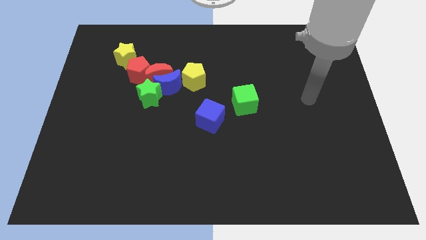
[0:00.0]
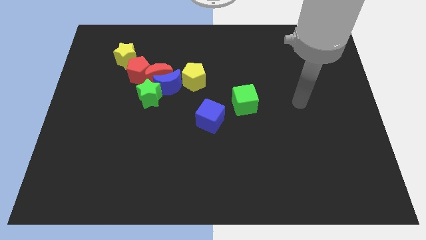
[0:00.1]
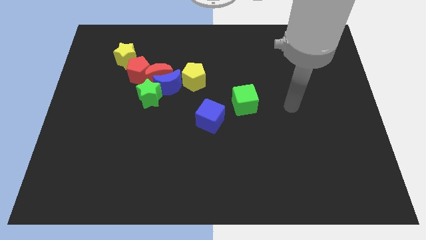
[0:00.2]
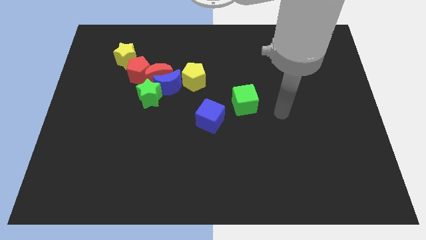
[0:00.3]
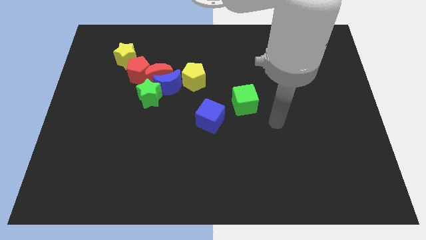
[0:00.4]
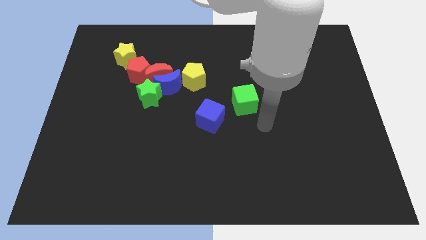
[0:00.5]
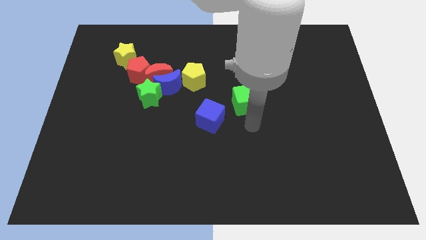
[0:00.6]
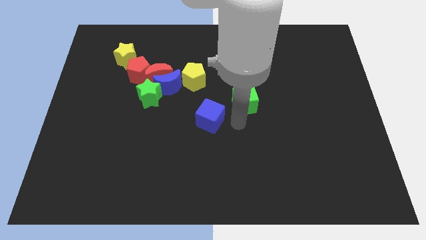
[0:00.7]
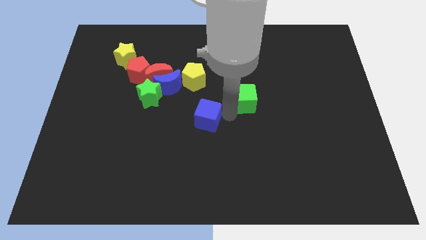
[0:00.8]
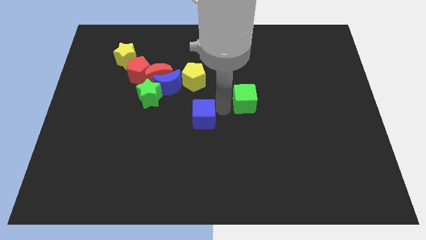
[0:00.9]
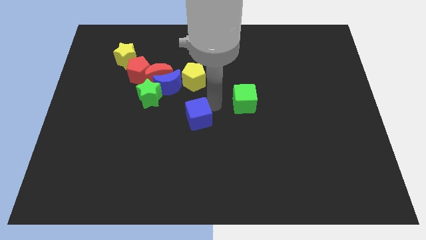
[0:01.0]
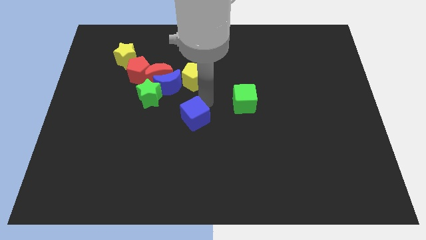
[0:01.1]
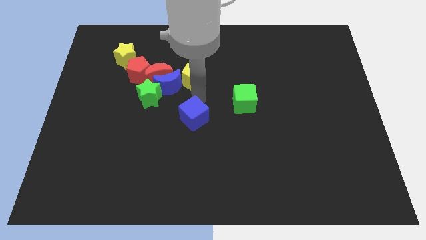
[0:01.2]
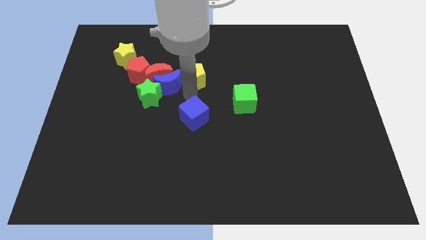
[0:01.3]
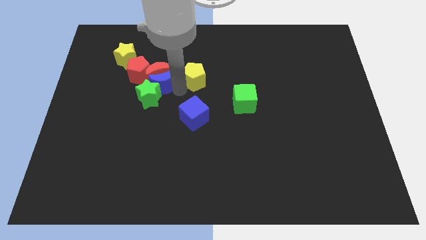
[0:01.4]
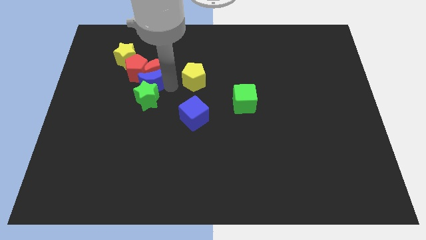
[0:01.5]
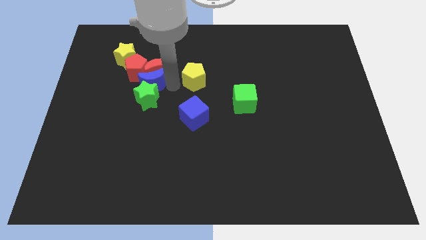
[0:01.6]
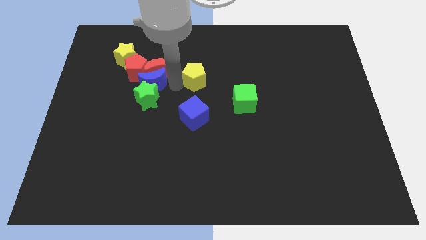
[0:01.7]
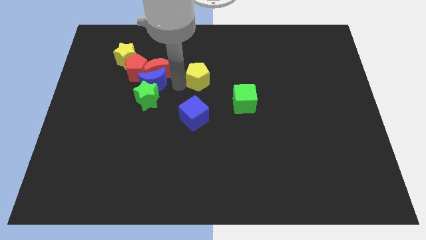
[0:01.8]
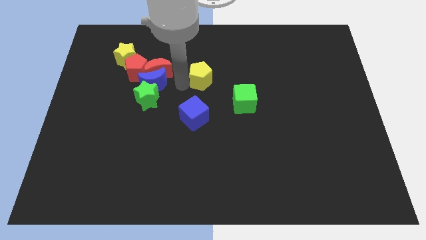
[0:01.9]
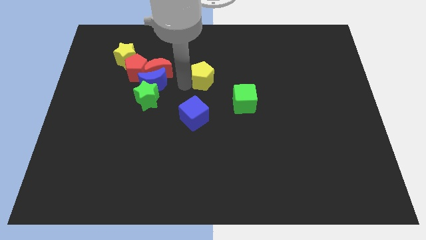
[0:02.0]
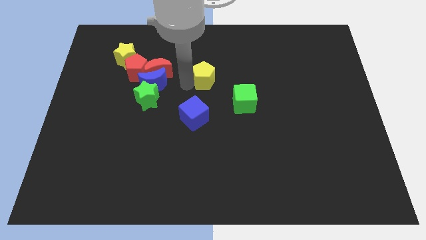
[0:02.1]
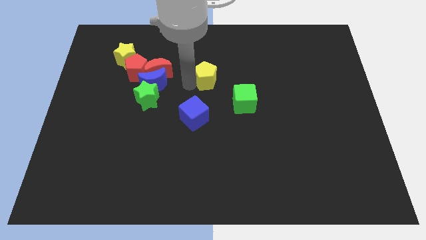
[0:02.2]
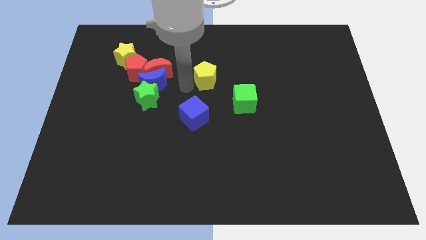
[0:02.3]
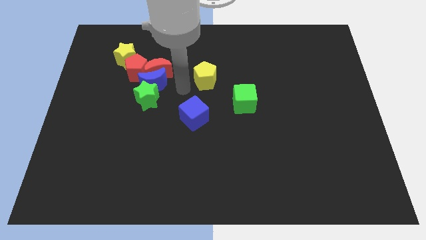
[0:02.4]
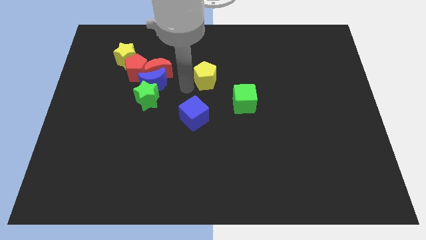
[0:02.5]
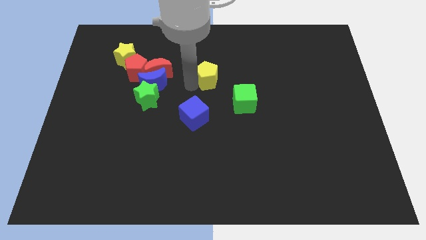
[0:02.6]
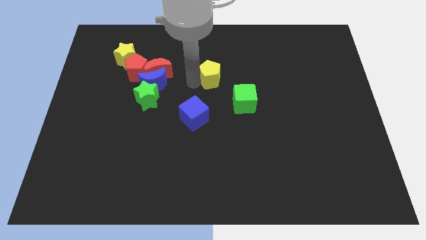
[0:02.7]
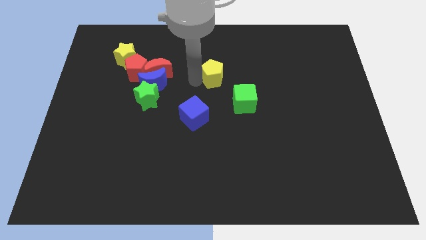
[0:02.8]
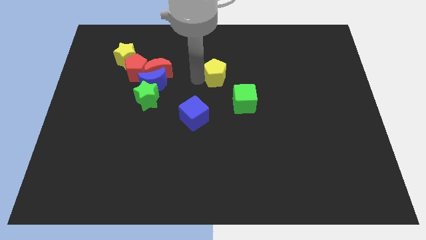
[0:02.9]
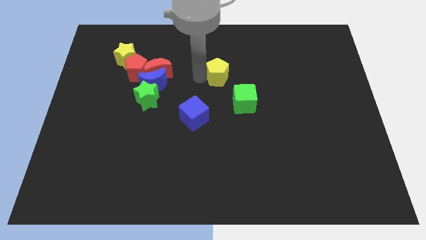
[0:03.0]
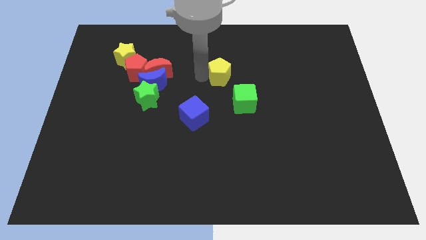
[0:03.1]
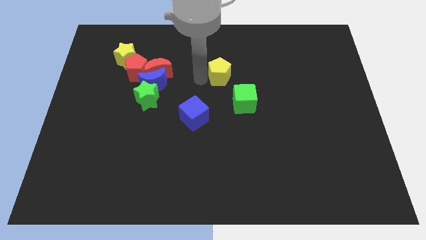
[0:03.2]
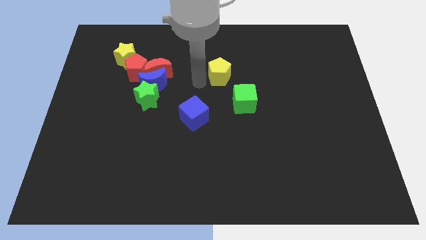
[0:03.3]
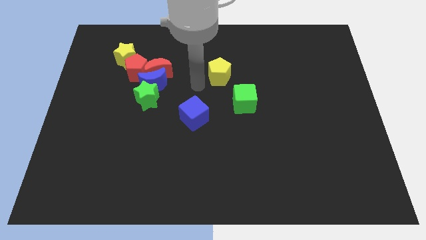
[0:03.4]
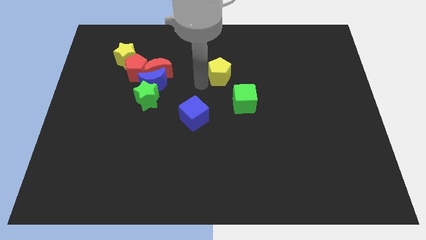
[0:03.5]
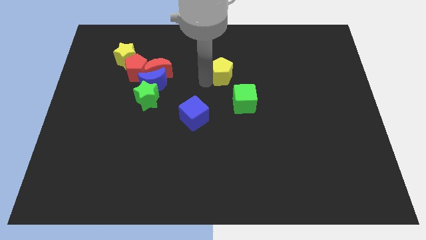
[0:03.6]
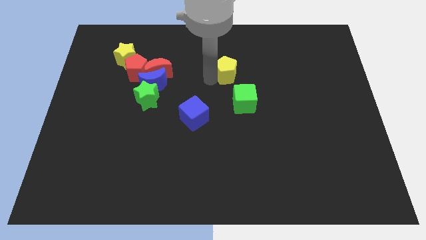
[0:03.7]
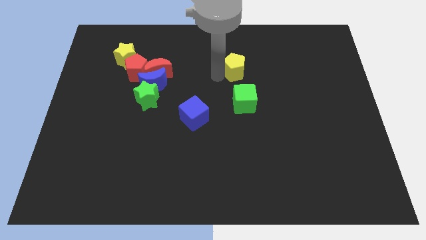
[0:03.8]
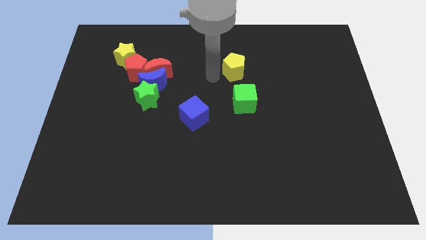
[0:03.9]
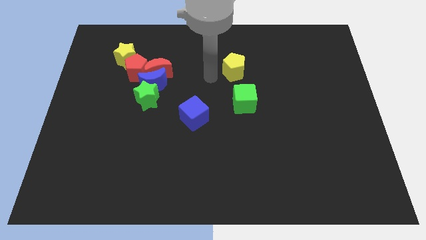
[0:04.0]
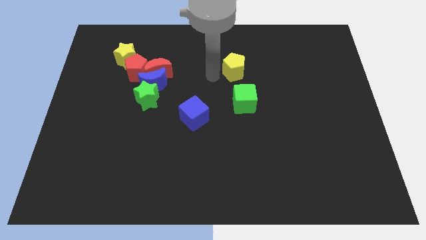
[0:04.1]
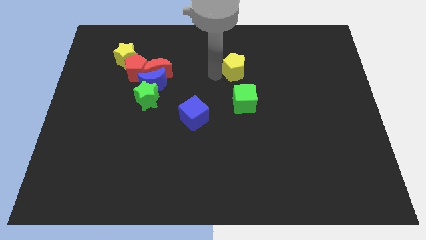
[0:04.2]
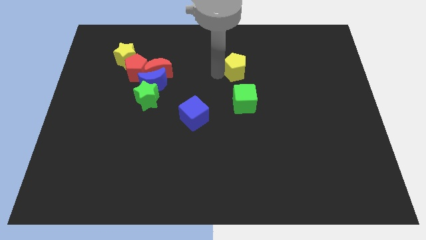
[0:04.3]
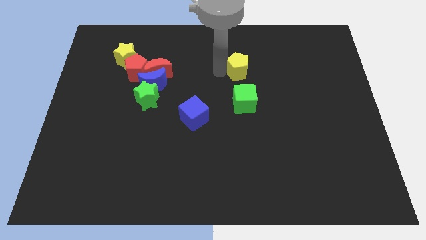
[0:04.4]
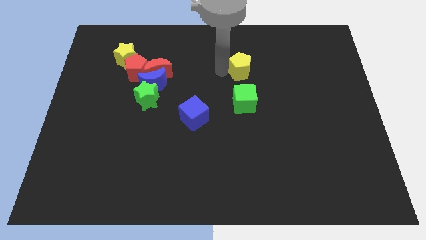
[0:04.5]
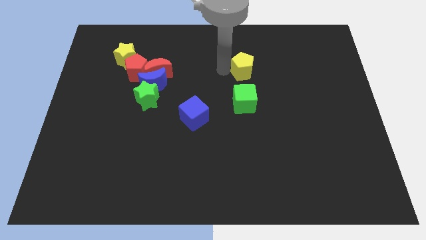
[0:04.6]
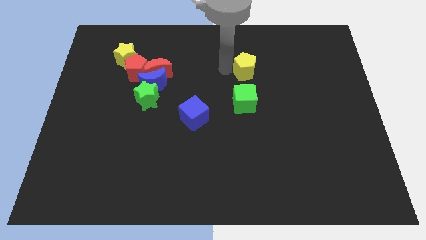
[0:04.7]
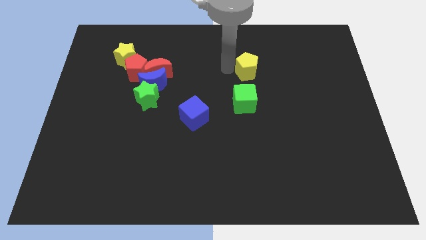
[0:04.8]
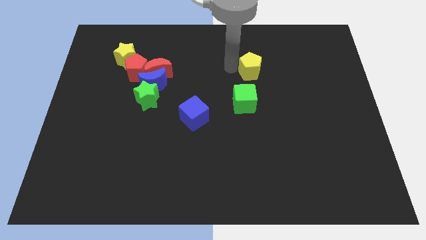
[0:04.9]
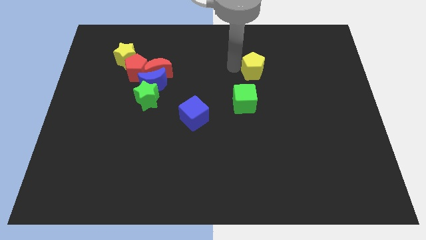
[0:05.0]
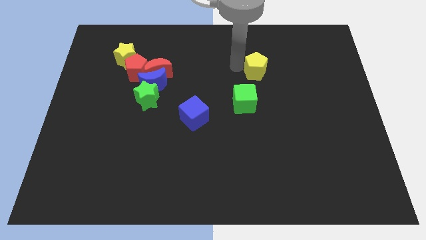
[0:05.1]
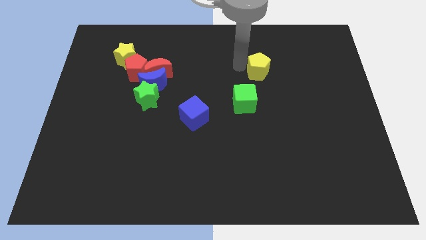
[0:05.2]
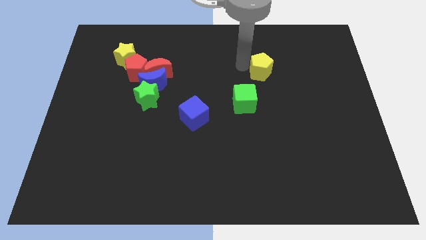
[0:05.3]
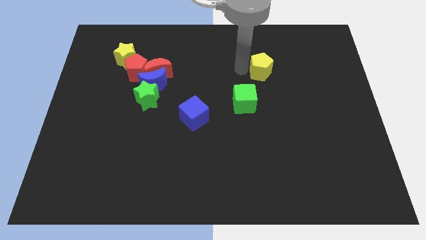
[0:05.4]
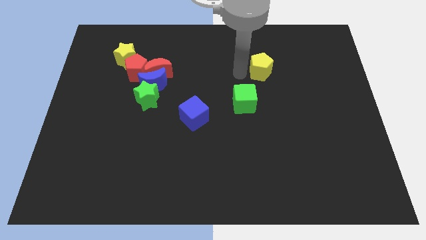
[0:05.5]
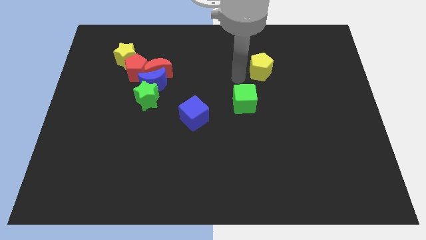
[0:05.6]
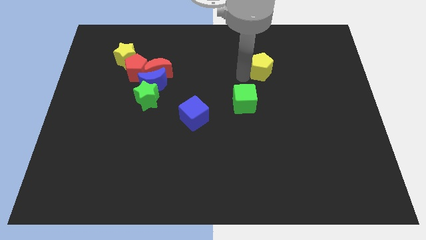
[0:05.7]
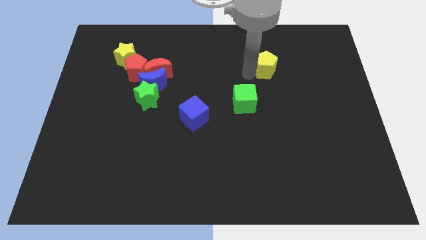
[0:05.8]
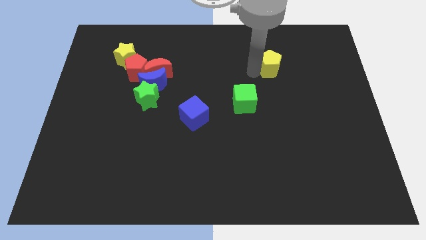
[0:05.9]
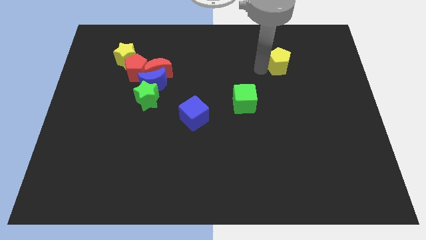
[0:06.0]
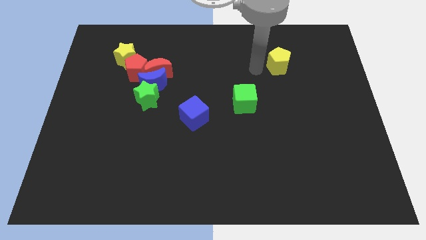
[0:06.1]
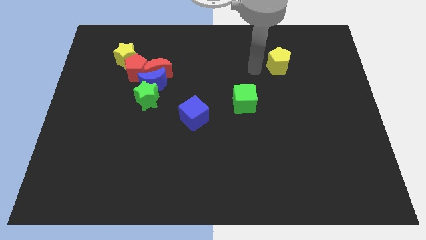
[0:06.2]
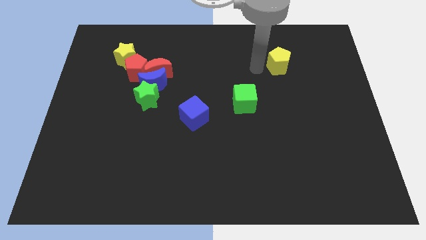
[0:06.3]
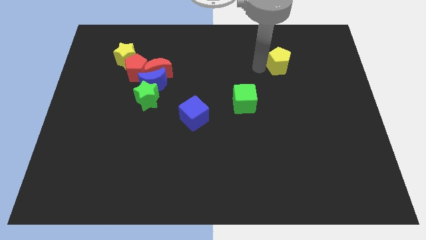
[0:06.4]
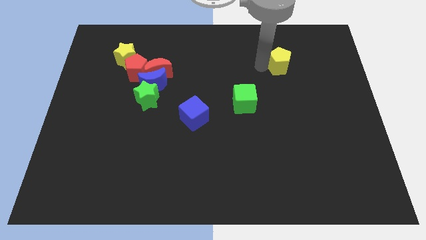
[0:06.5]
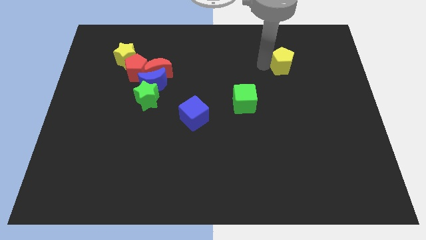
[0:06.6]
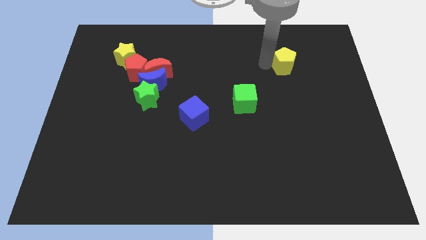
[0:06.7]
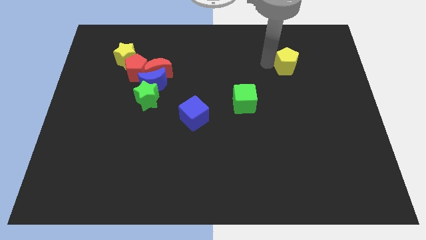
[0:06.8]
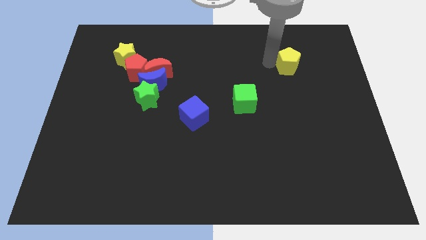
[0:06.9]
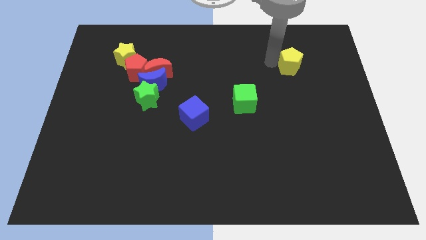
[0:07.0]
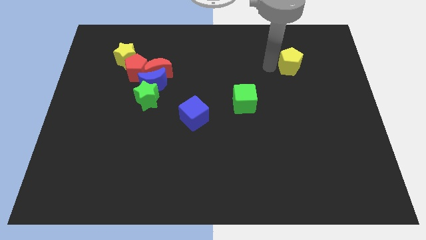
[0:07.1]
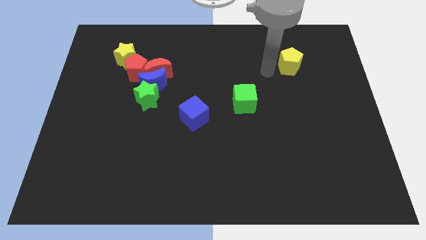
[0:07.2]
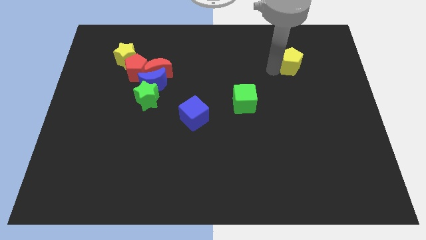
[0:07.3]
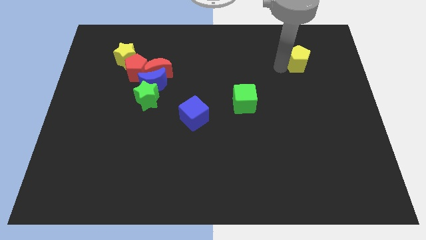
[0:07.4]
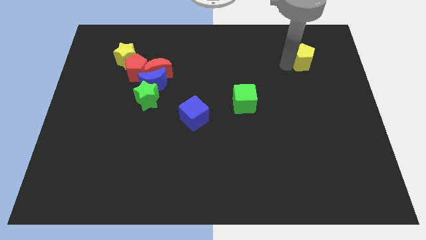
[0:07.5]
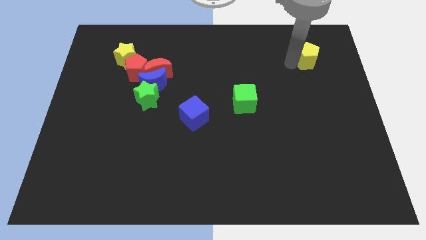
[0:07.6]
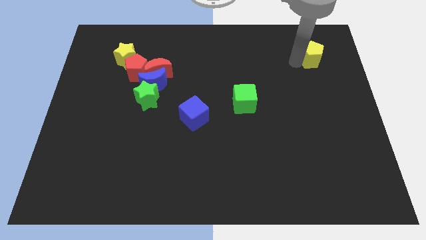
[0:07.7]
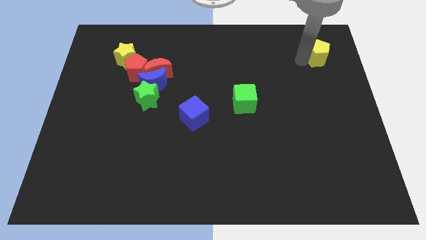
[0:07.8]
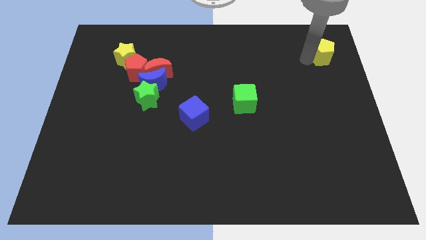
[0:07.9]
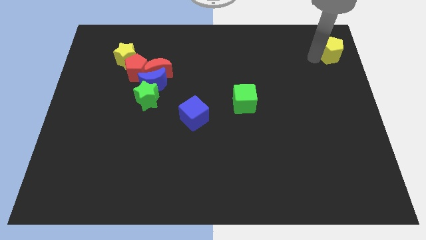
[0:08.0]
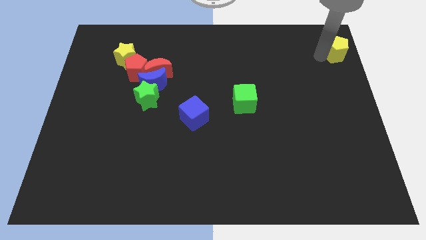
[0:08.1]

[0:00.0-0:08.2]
move the yellow pentagon to the top right
